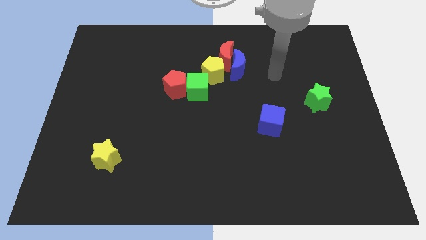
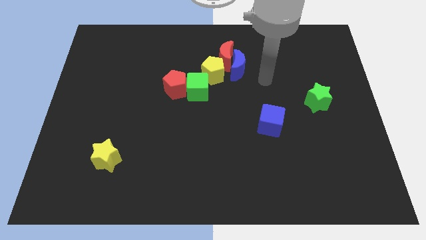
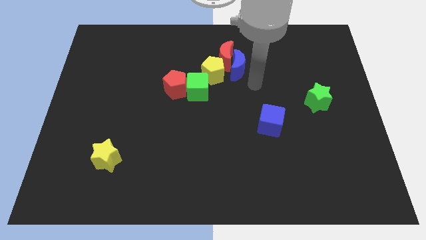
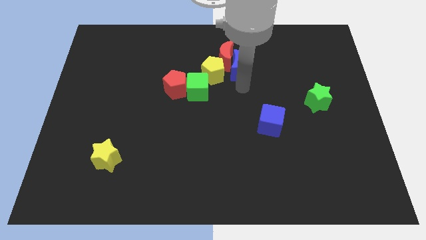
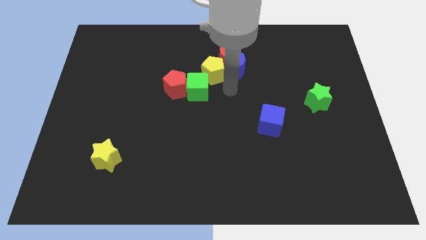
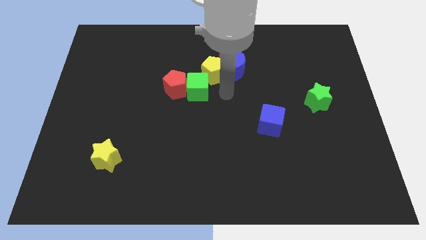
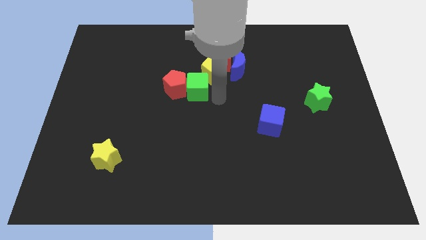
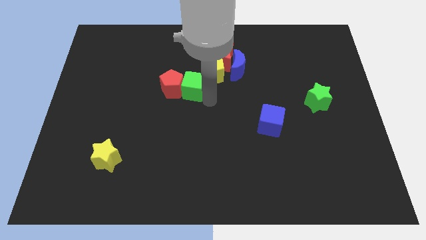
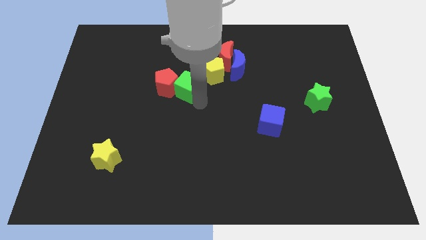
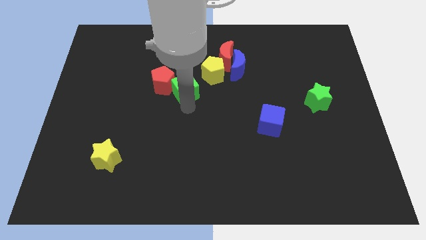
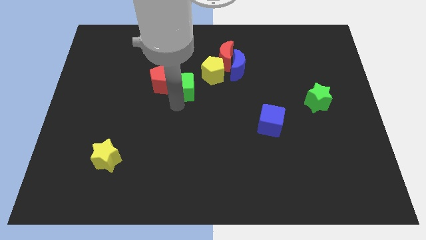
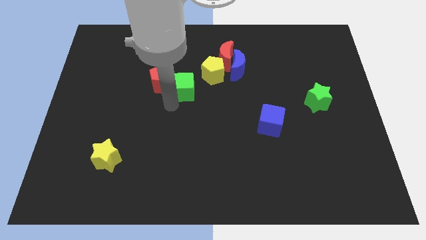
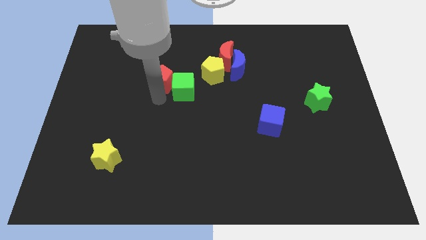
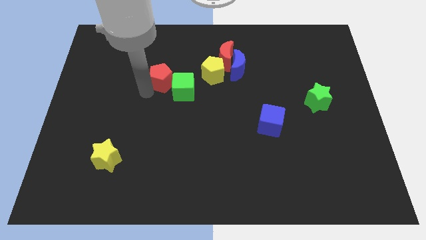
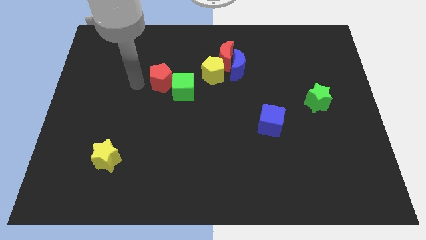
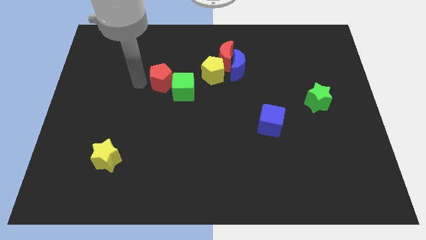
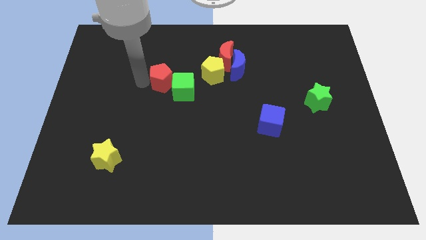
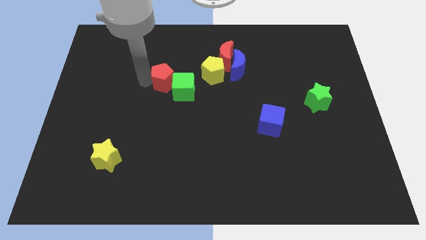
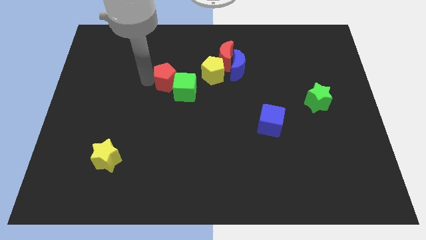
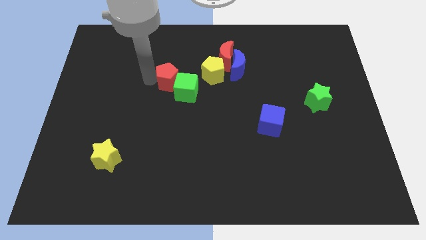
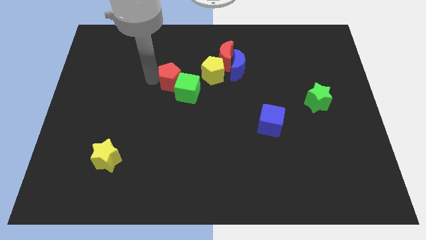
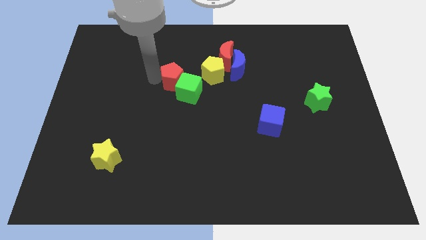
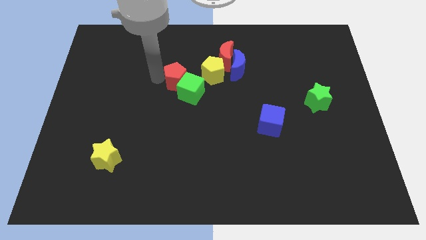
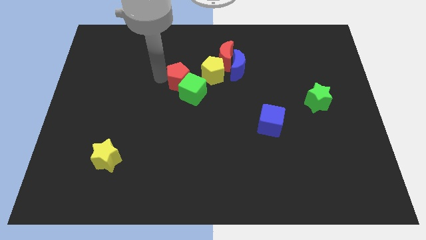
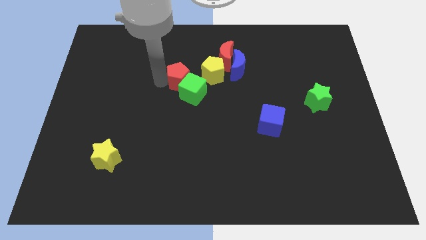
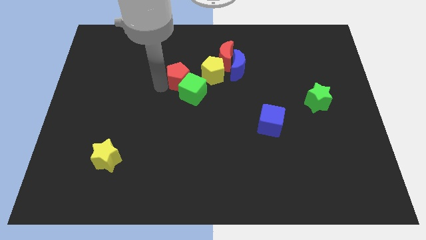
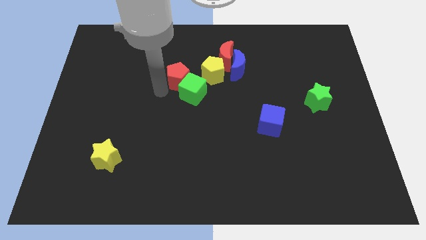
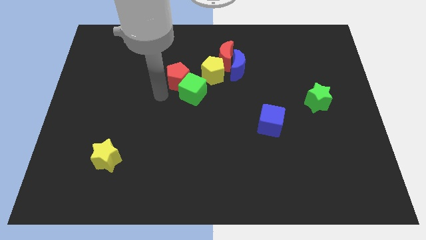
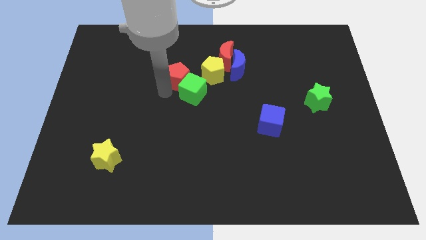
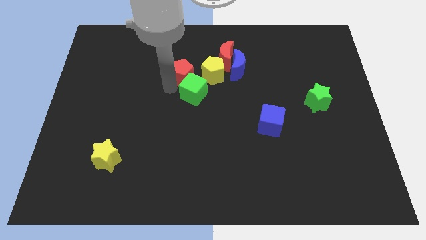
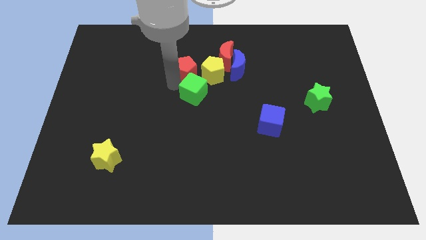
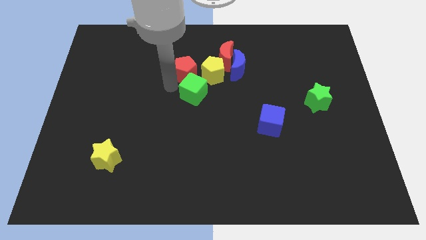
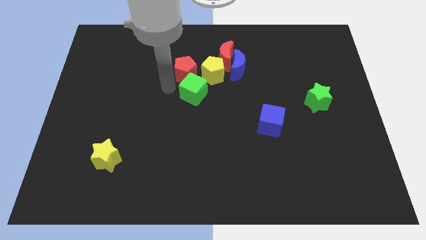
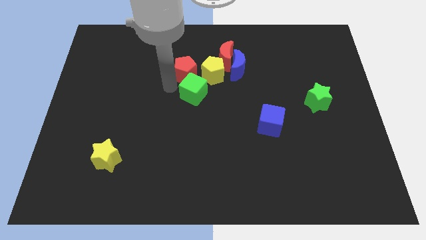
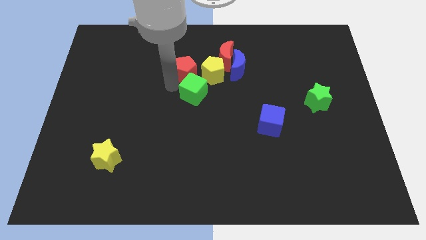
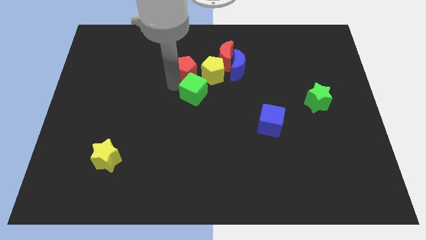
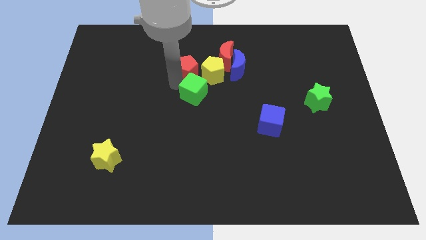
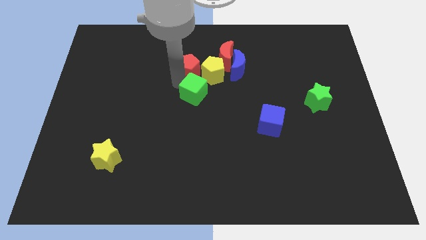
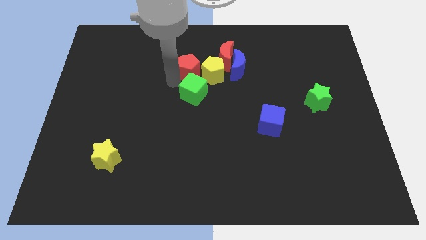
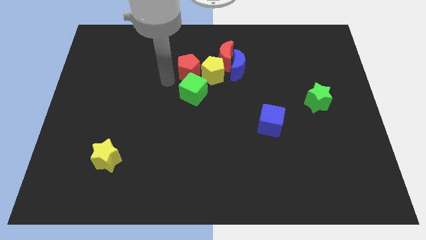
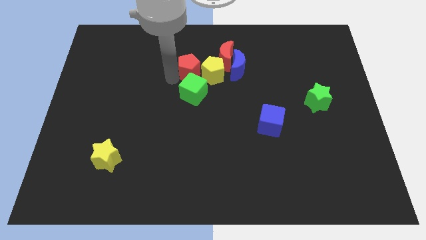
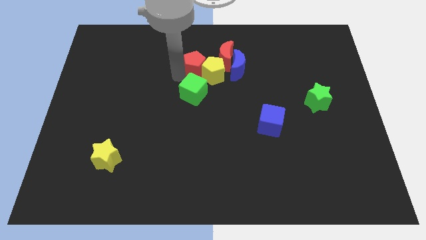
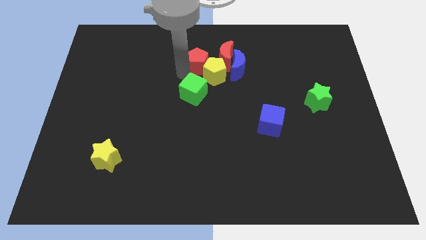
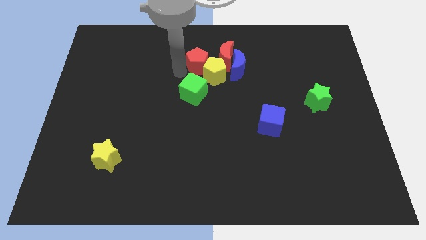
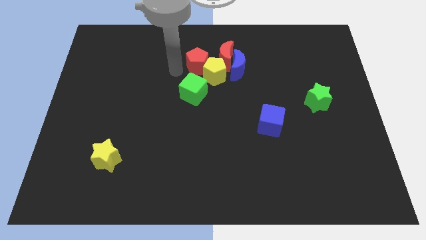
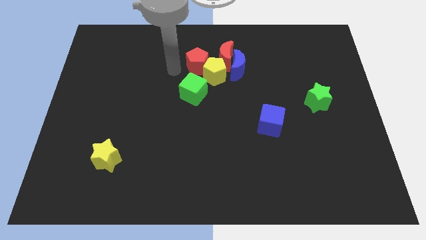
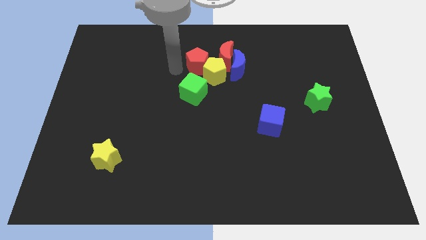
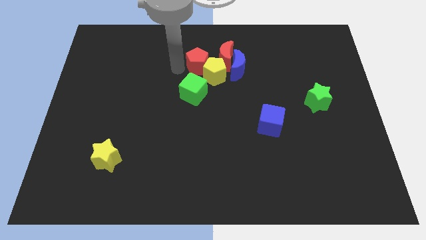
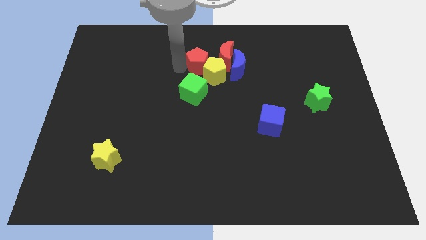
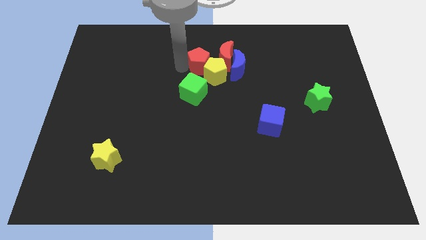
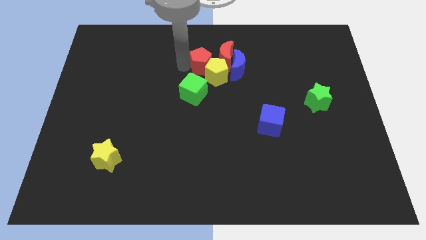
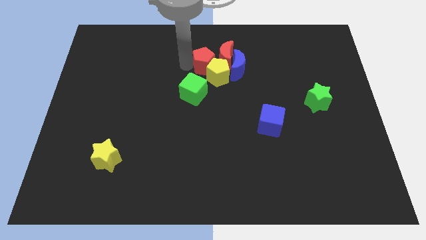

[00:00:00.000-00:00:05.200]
push the red pentagon next to the red moon

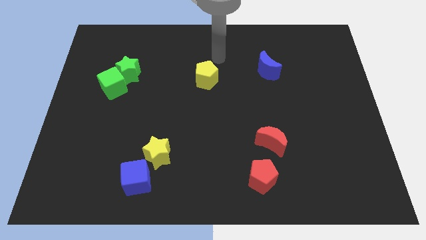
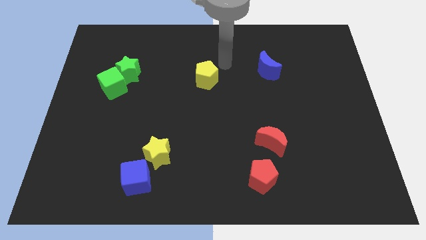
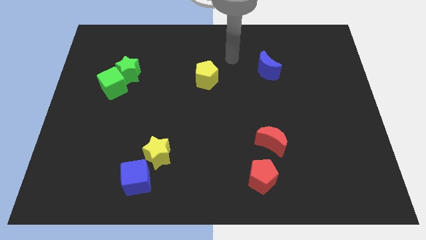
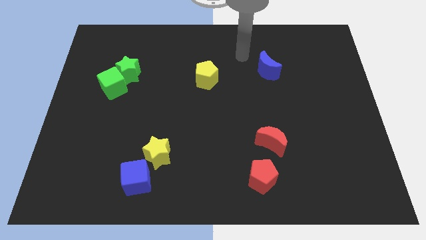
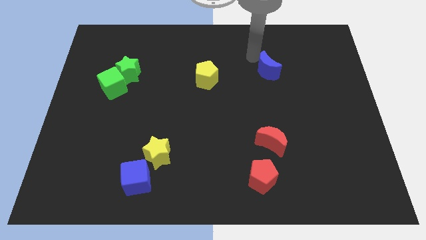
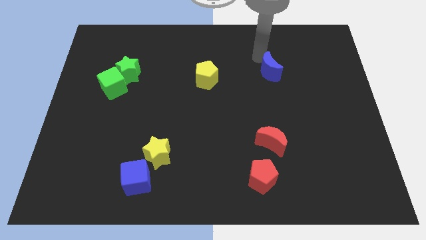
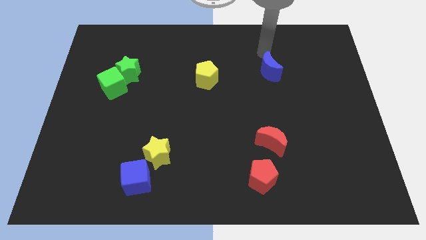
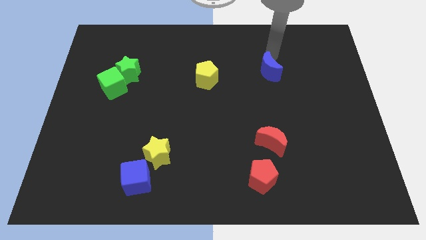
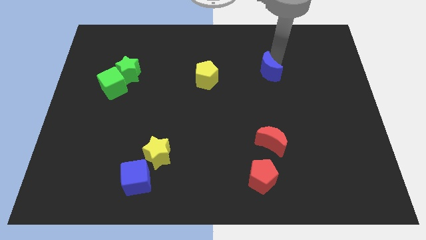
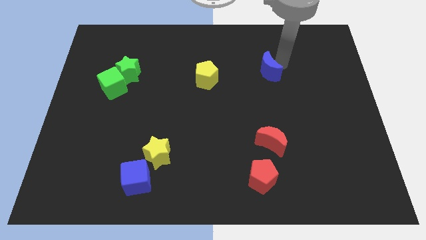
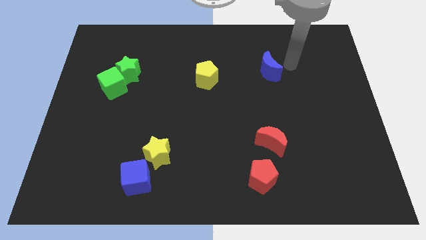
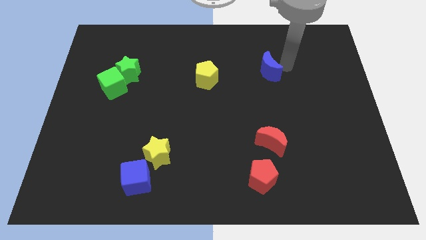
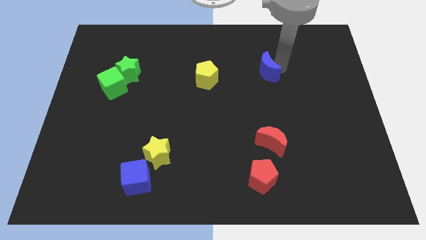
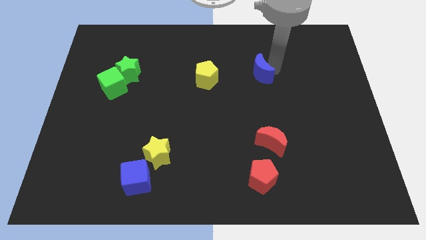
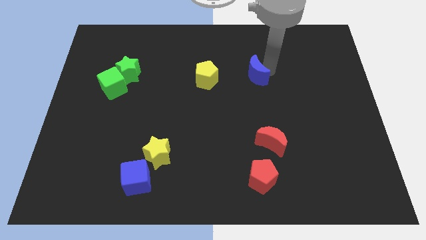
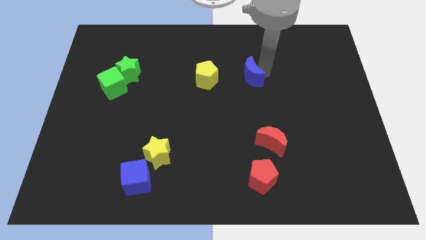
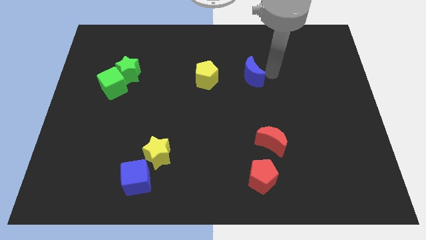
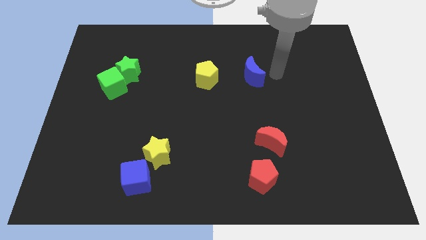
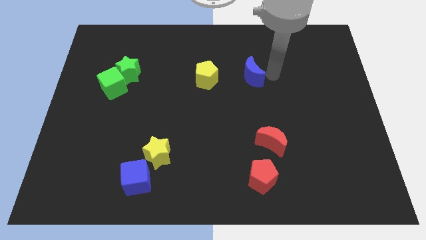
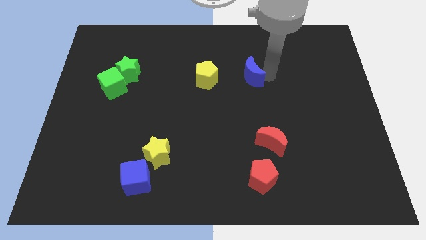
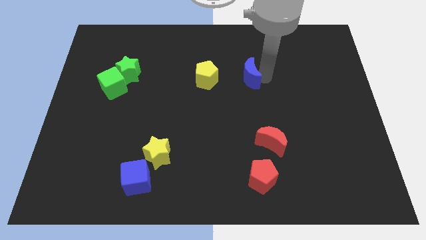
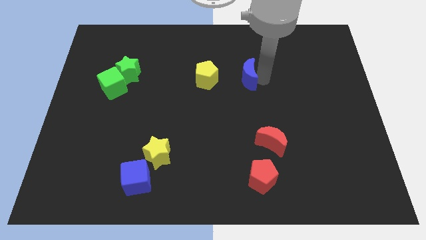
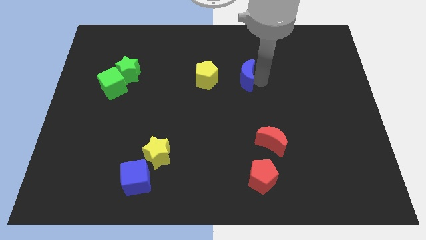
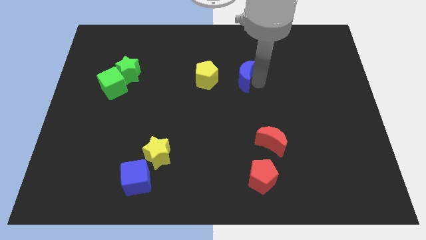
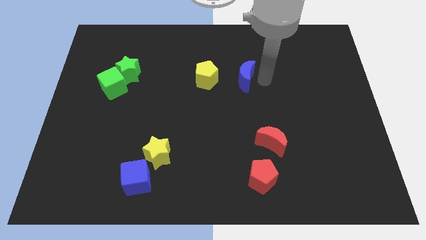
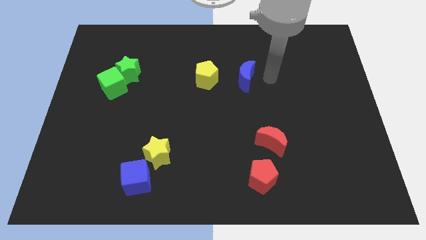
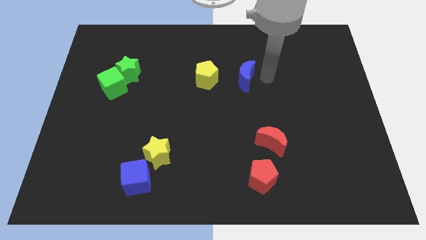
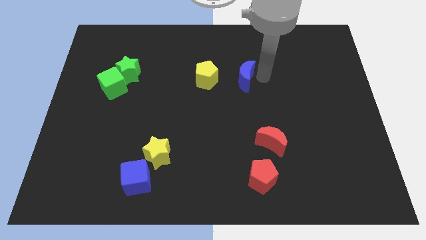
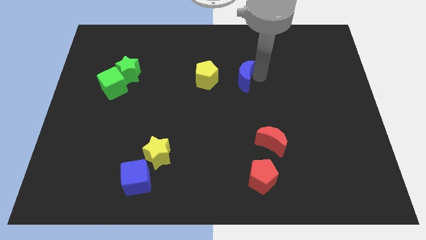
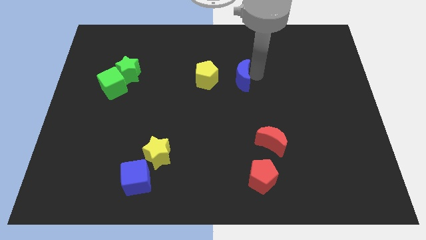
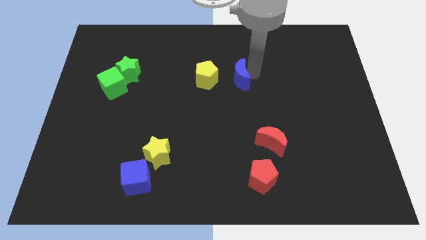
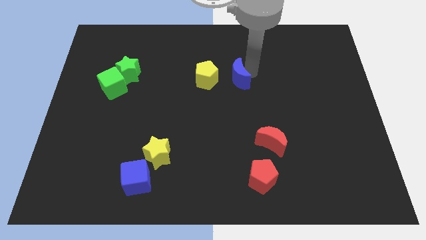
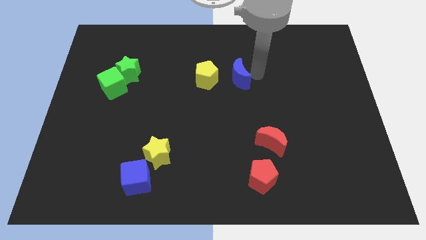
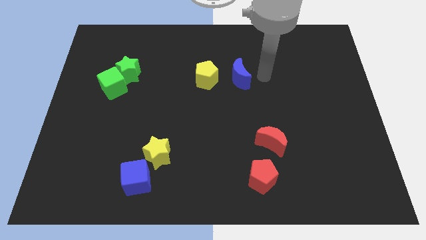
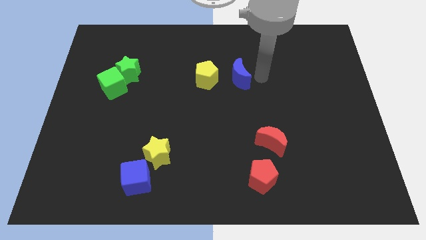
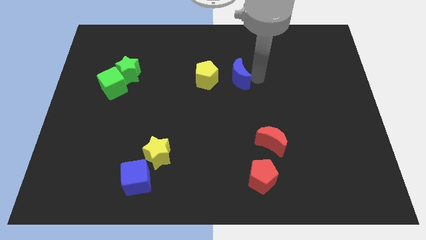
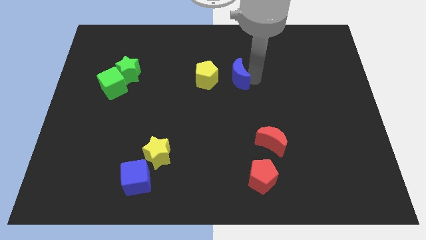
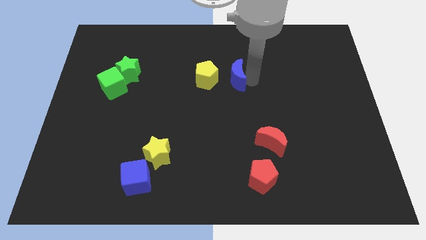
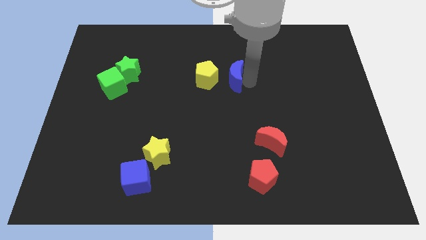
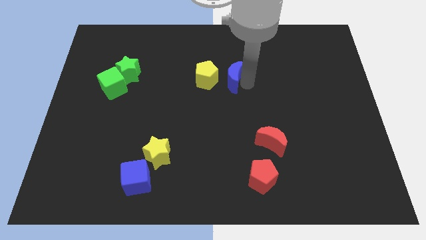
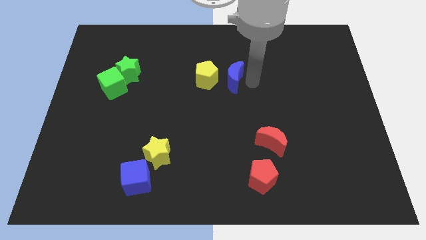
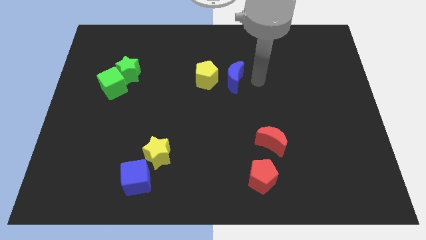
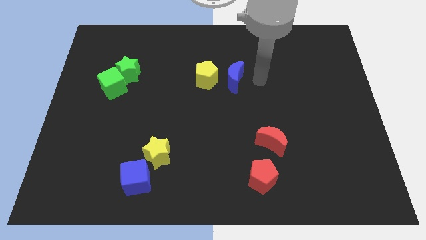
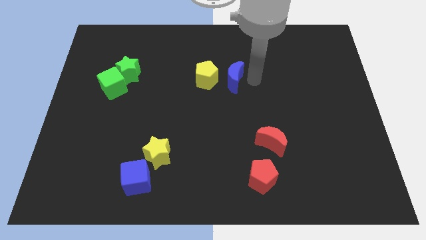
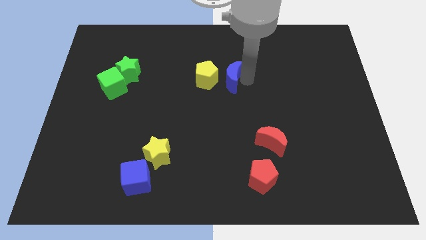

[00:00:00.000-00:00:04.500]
slide the blue moon close to the yellow pentagon
